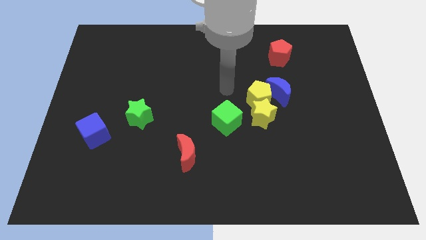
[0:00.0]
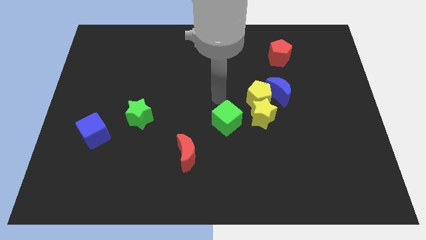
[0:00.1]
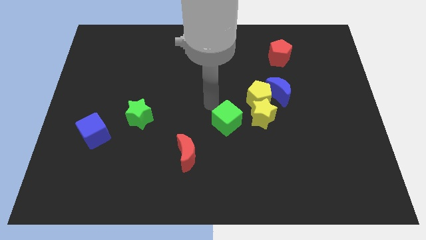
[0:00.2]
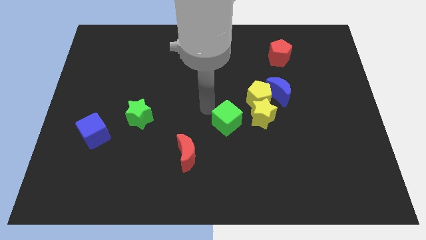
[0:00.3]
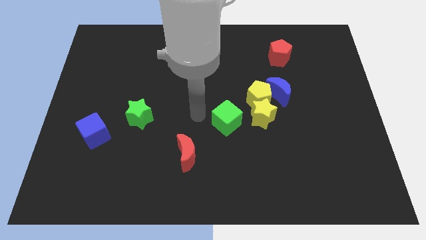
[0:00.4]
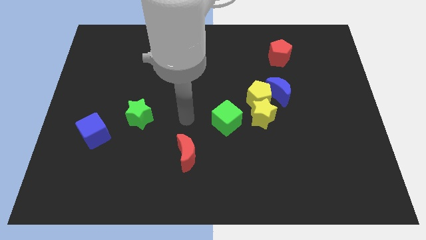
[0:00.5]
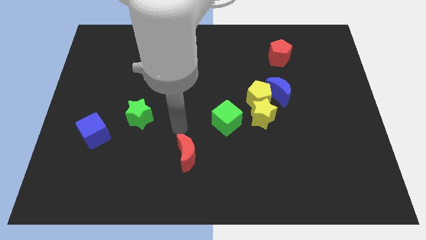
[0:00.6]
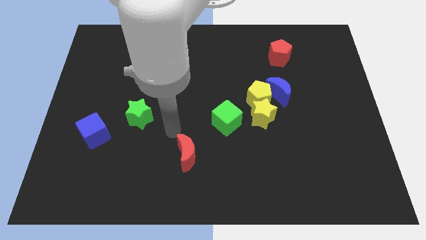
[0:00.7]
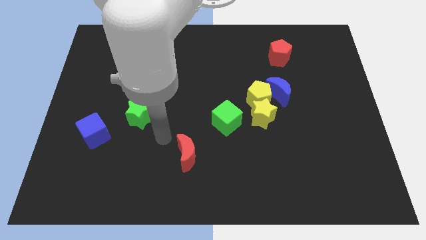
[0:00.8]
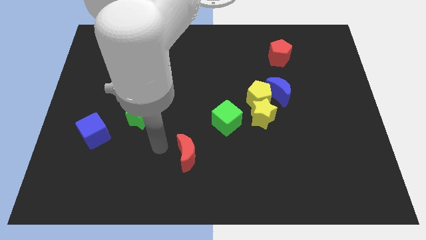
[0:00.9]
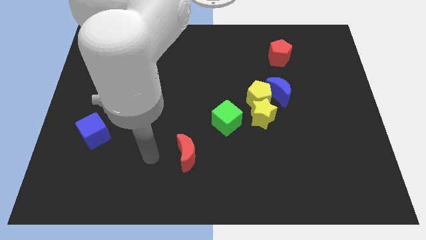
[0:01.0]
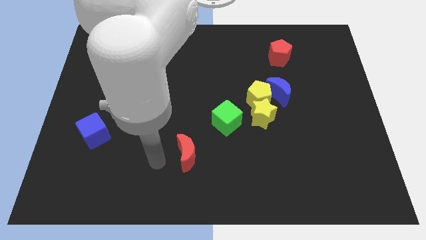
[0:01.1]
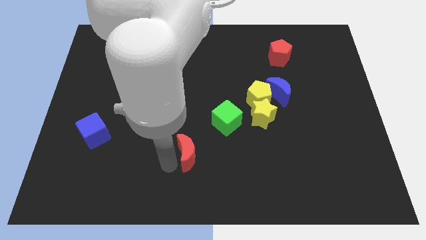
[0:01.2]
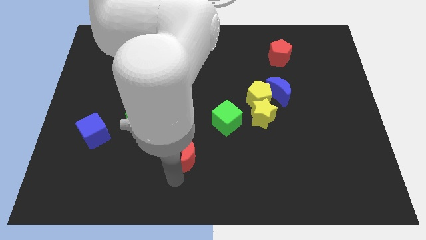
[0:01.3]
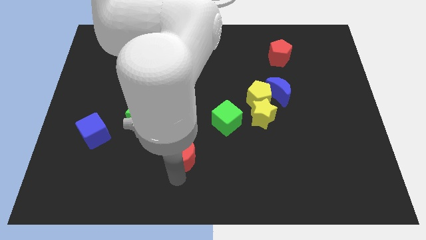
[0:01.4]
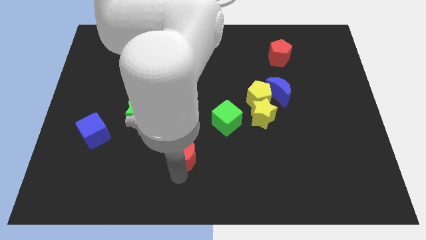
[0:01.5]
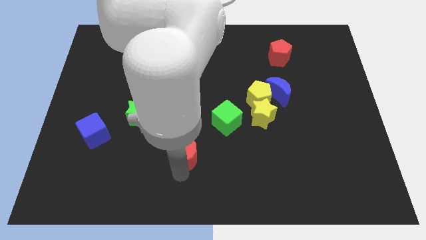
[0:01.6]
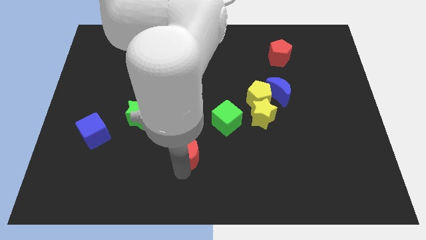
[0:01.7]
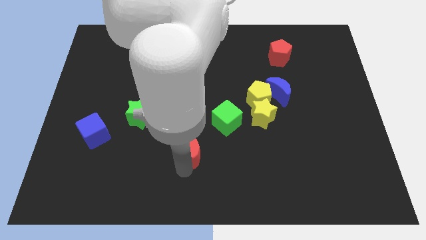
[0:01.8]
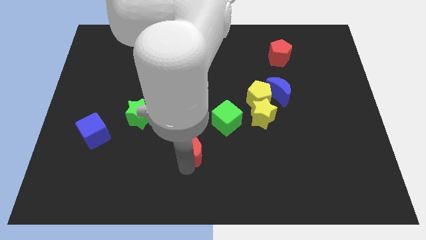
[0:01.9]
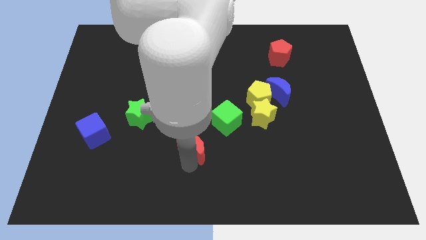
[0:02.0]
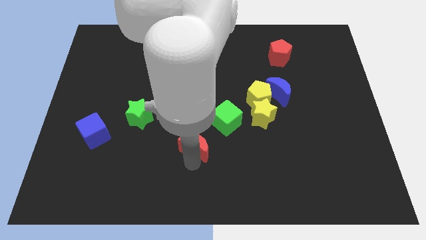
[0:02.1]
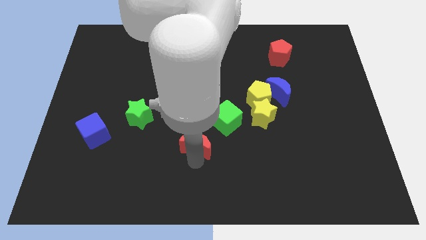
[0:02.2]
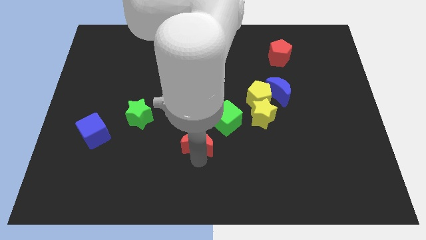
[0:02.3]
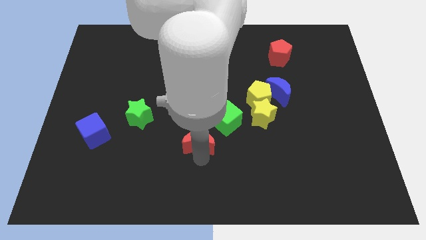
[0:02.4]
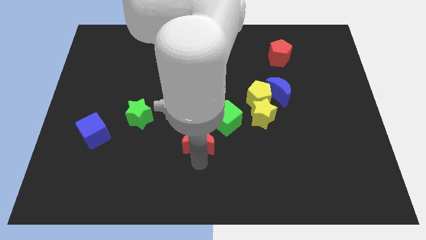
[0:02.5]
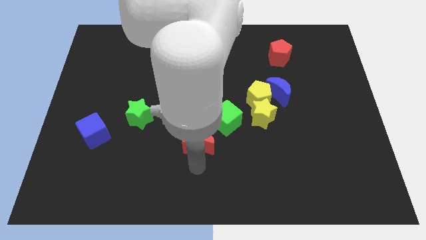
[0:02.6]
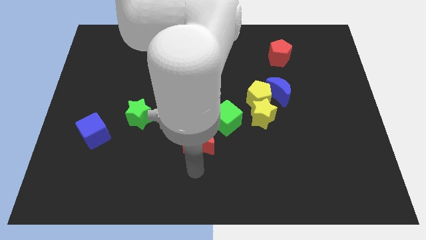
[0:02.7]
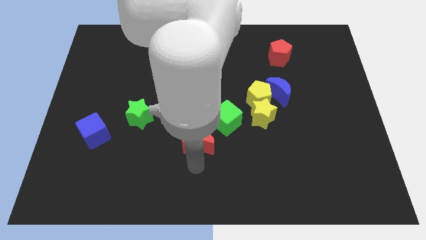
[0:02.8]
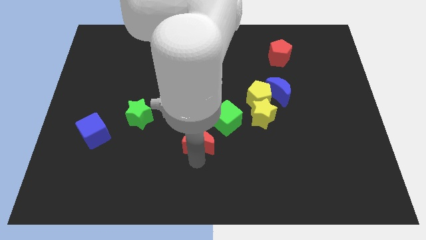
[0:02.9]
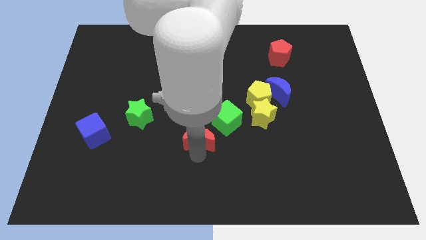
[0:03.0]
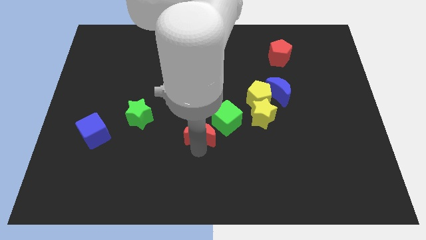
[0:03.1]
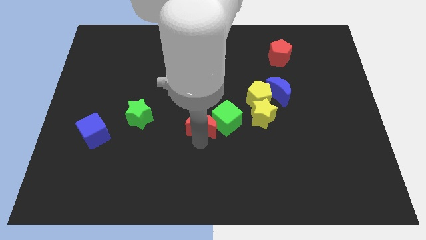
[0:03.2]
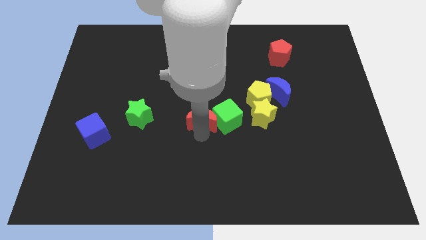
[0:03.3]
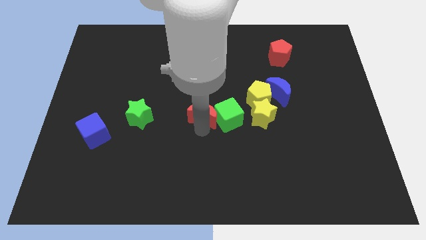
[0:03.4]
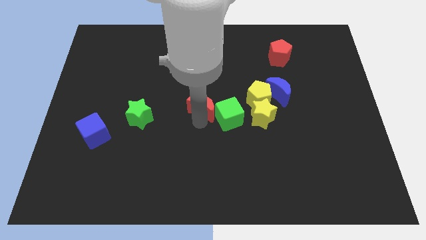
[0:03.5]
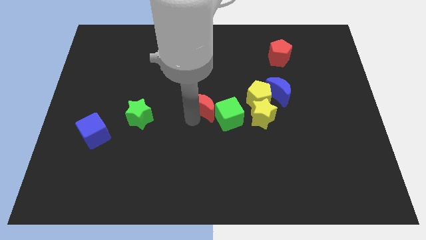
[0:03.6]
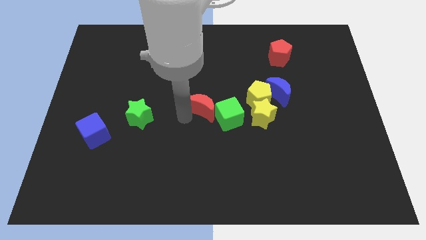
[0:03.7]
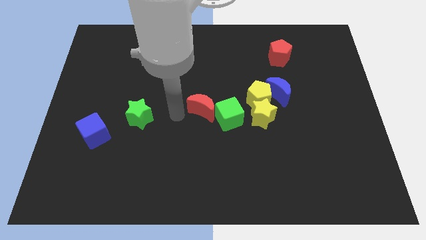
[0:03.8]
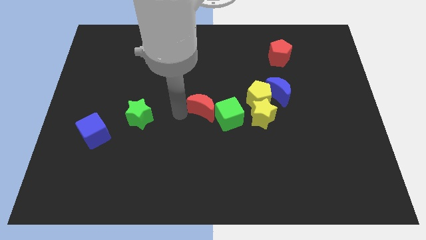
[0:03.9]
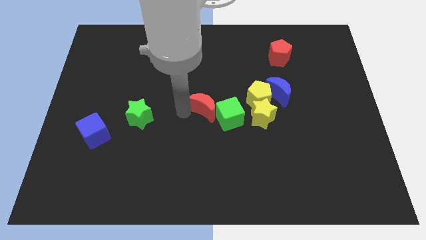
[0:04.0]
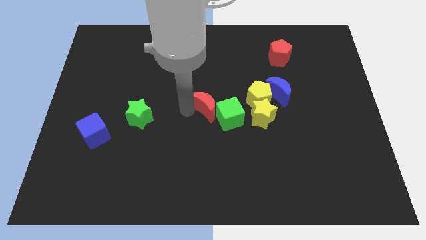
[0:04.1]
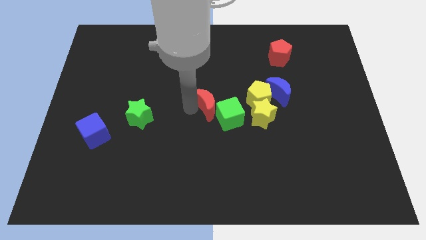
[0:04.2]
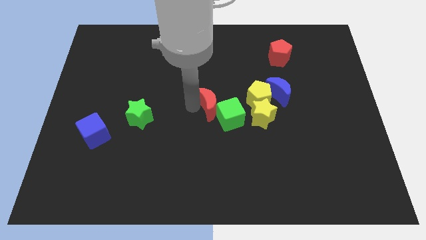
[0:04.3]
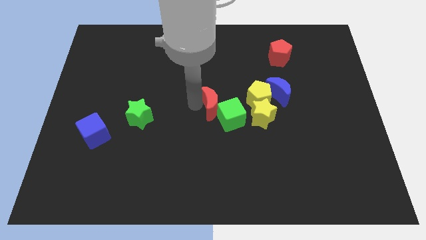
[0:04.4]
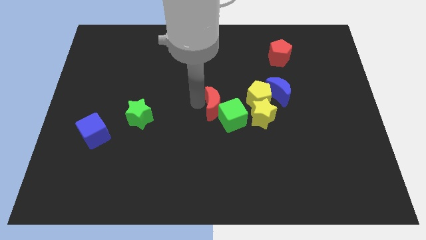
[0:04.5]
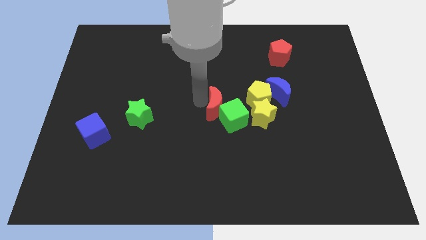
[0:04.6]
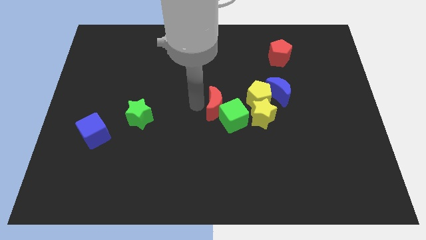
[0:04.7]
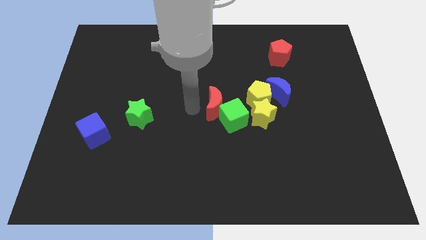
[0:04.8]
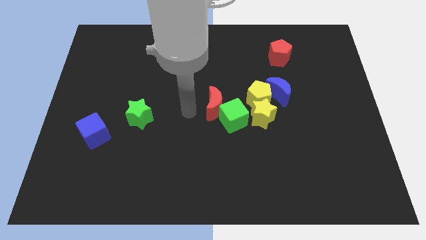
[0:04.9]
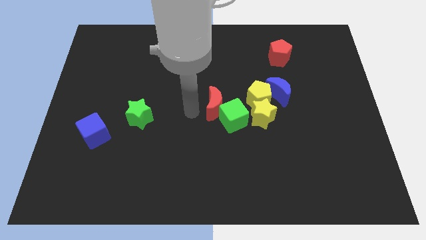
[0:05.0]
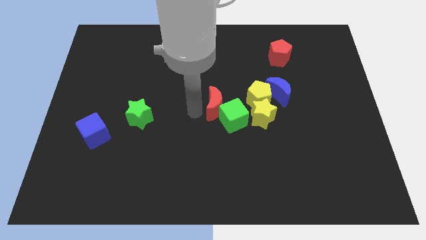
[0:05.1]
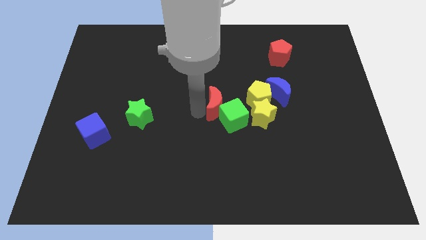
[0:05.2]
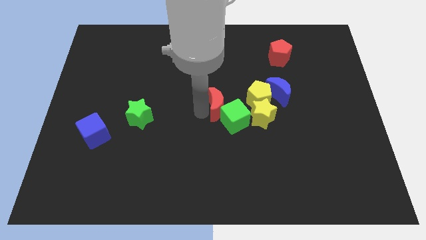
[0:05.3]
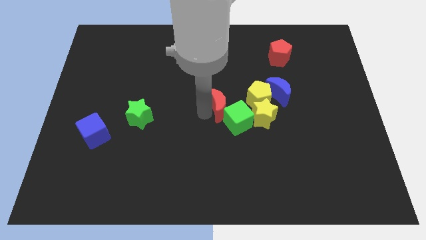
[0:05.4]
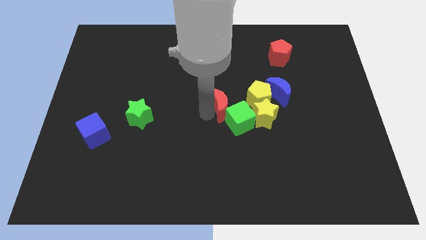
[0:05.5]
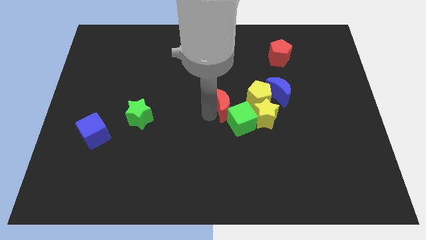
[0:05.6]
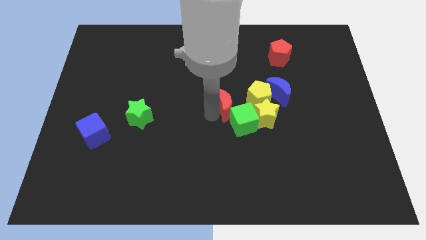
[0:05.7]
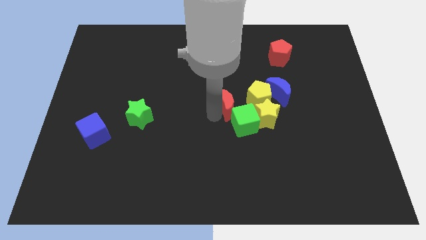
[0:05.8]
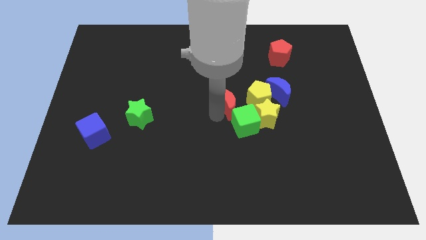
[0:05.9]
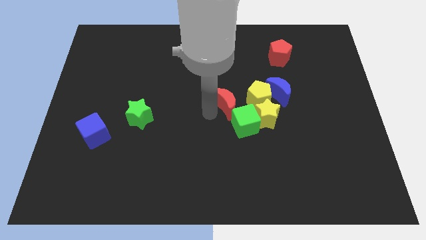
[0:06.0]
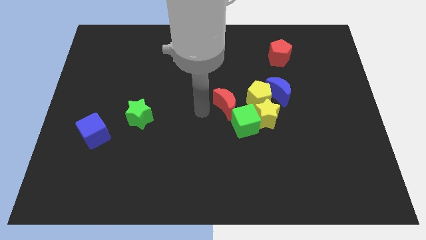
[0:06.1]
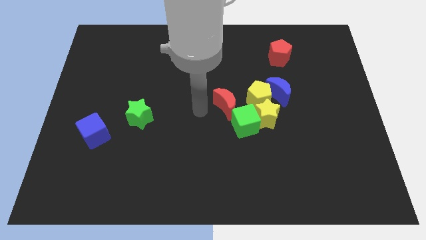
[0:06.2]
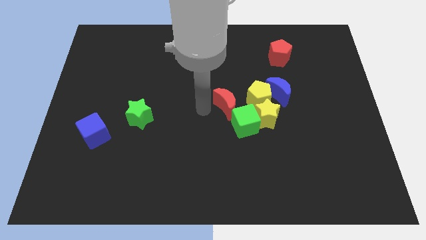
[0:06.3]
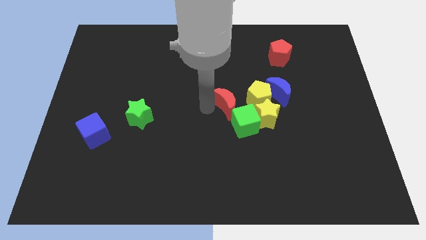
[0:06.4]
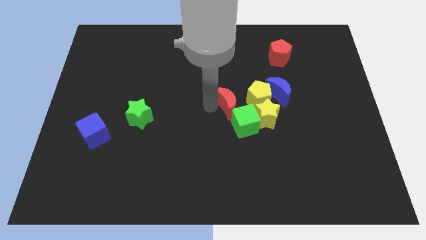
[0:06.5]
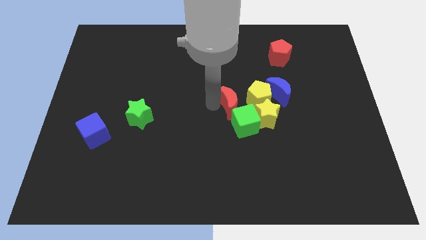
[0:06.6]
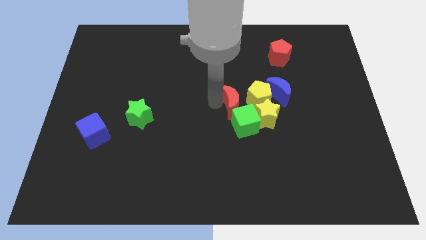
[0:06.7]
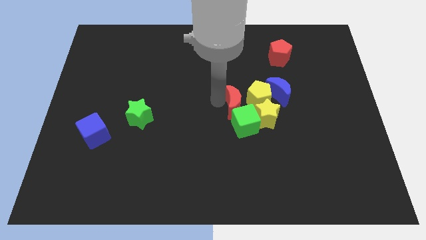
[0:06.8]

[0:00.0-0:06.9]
push the red moon close to the yellow pentagon
